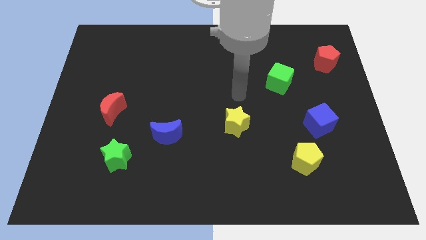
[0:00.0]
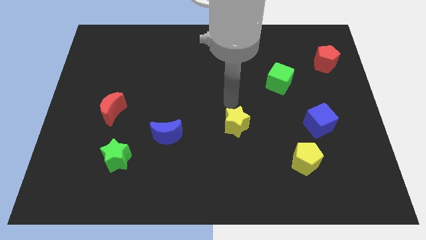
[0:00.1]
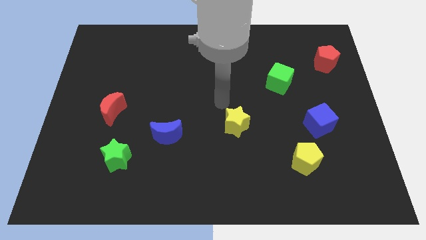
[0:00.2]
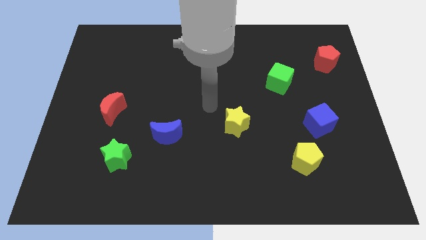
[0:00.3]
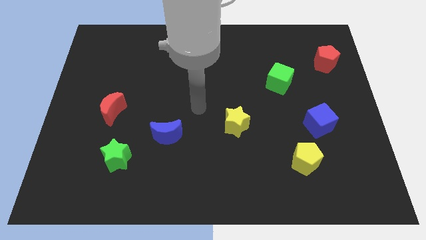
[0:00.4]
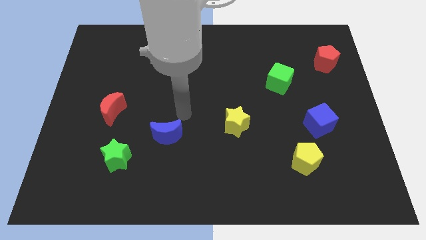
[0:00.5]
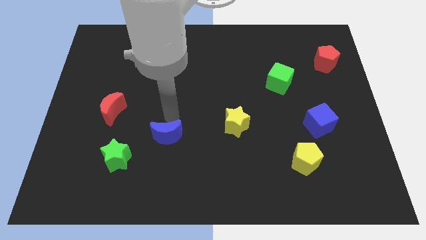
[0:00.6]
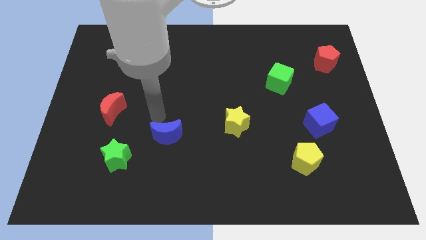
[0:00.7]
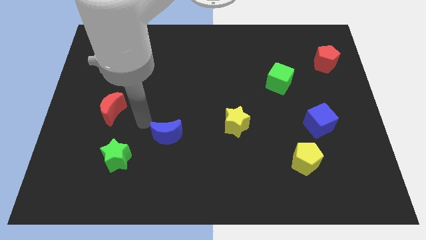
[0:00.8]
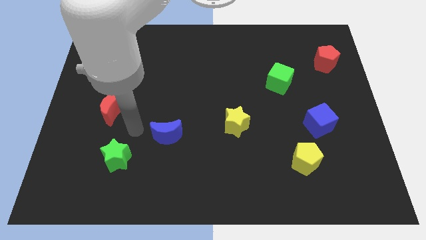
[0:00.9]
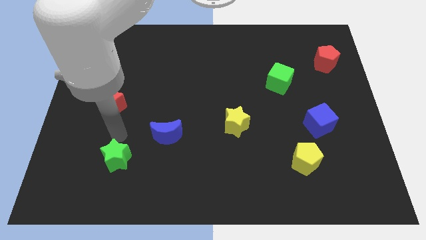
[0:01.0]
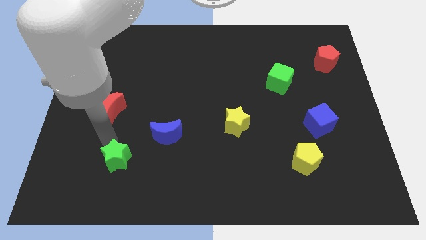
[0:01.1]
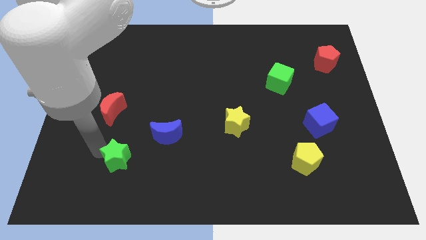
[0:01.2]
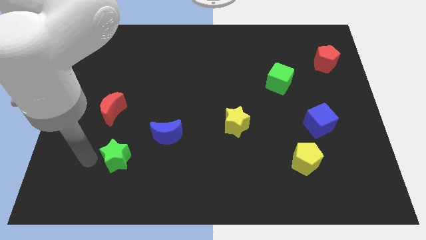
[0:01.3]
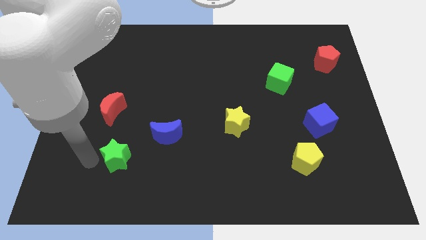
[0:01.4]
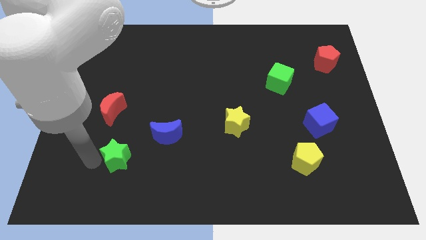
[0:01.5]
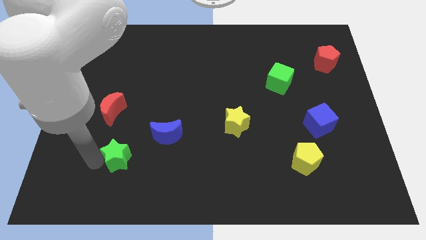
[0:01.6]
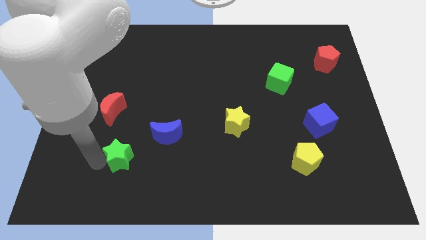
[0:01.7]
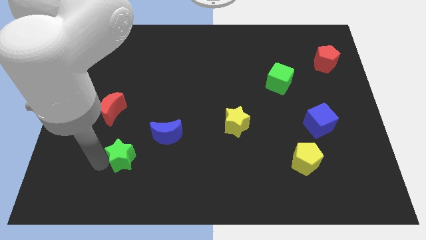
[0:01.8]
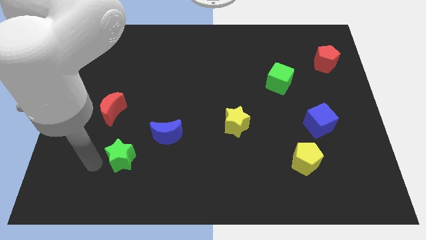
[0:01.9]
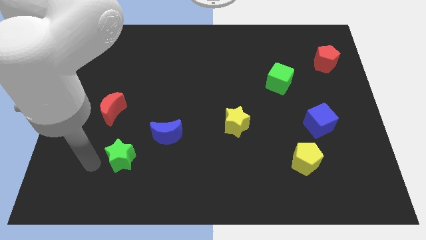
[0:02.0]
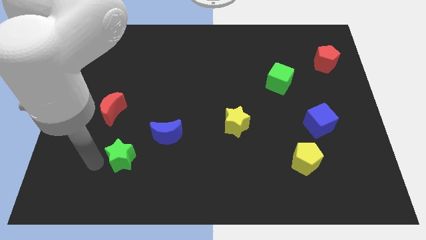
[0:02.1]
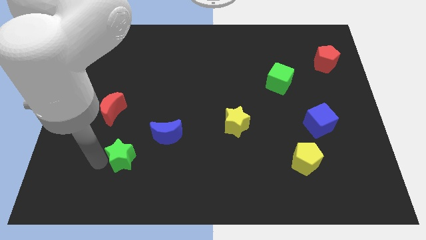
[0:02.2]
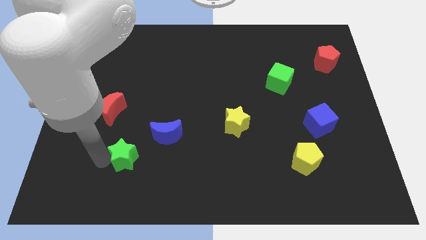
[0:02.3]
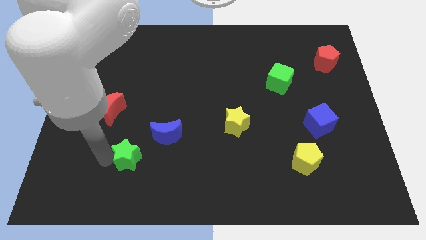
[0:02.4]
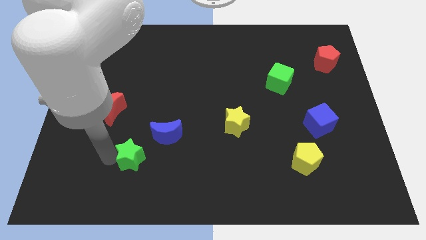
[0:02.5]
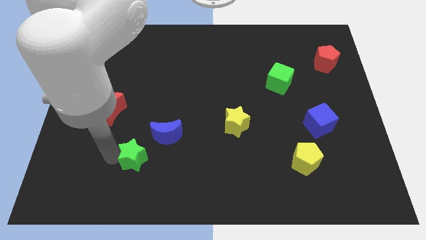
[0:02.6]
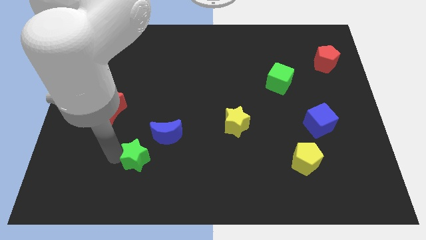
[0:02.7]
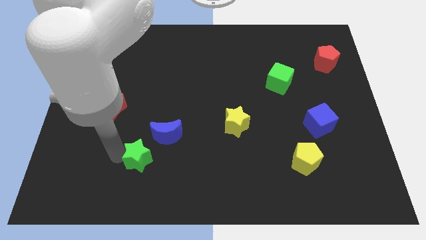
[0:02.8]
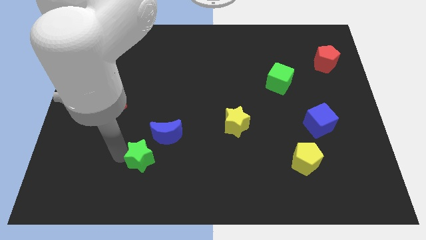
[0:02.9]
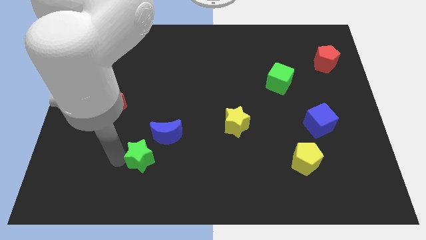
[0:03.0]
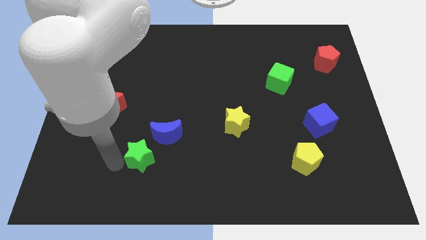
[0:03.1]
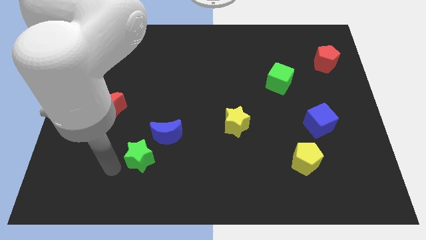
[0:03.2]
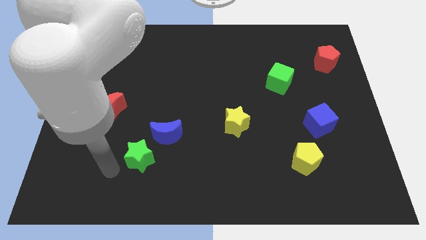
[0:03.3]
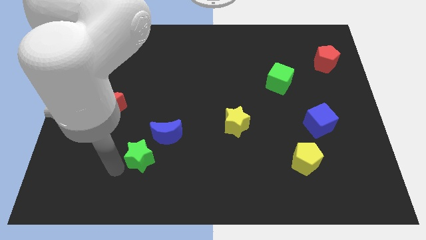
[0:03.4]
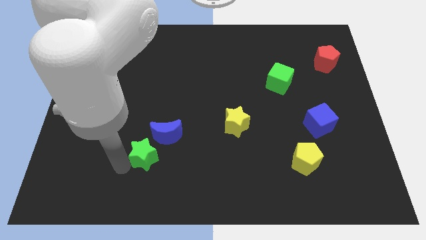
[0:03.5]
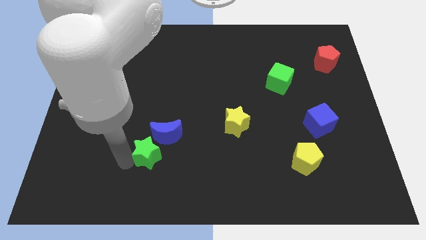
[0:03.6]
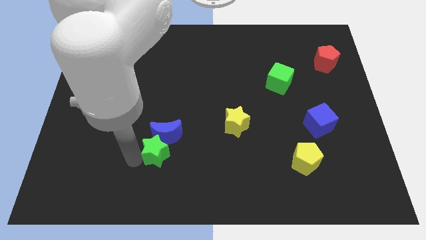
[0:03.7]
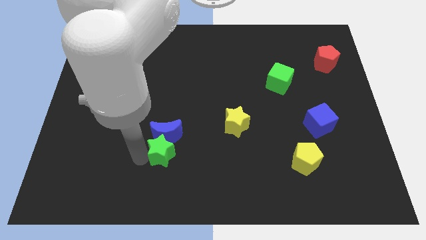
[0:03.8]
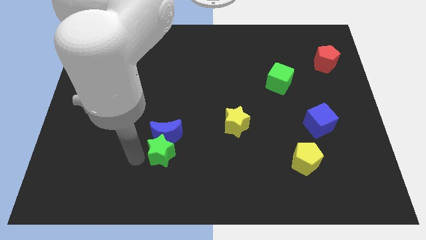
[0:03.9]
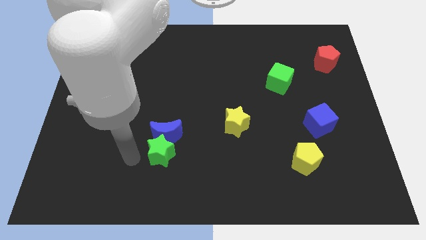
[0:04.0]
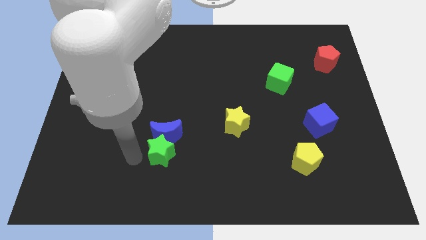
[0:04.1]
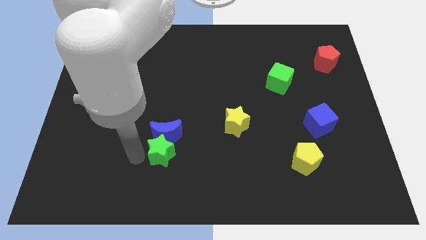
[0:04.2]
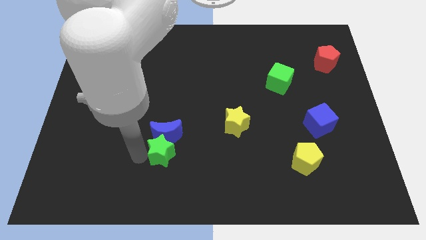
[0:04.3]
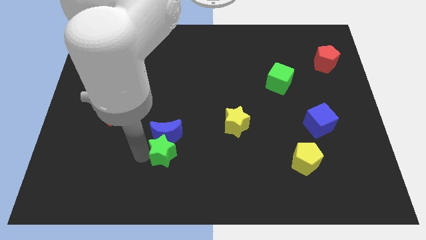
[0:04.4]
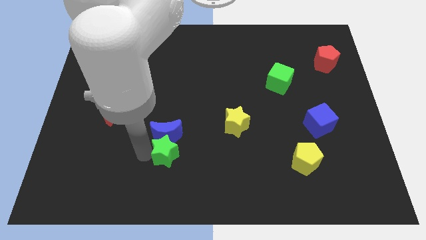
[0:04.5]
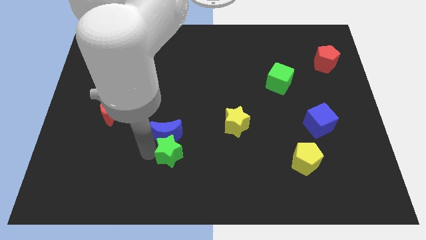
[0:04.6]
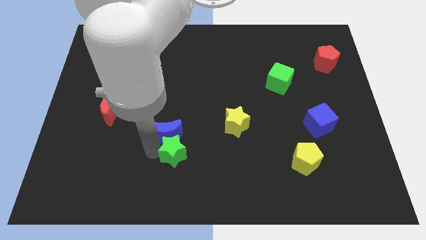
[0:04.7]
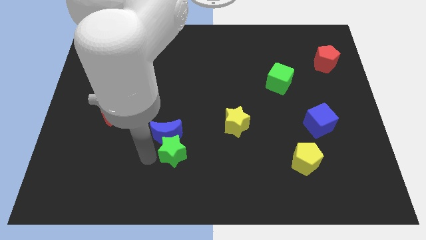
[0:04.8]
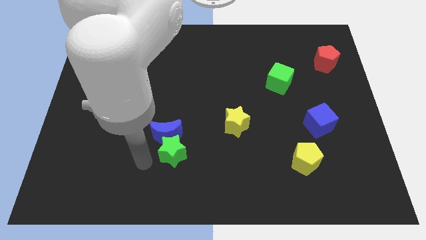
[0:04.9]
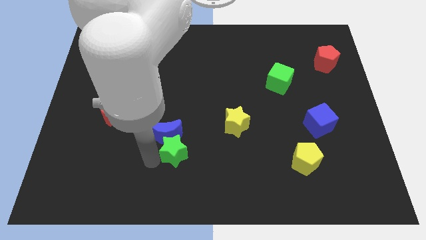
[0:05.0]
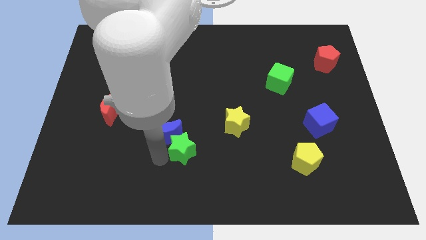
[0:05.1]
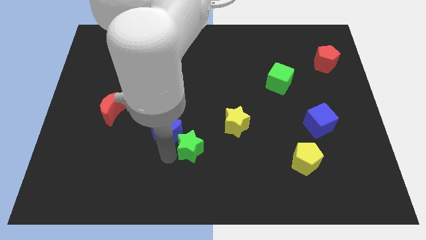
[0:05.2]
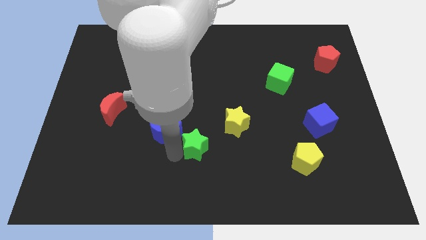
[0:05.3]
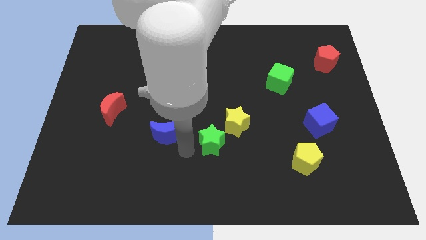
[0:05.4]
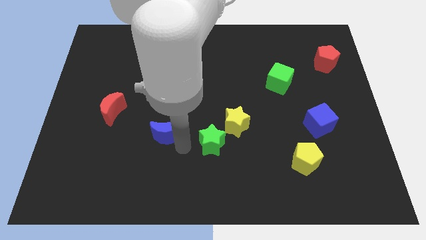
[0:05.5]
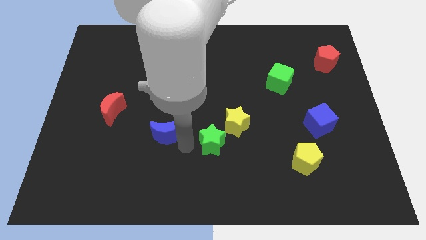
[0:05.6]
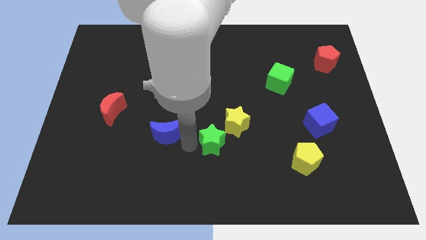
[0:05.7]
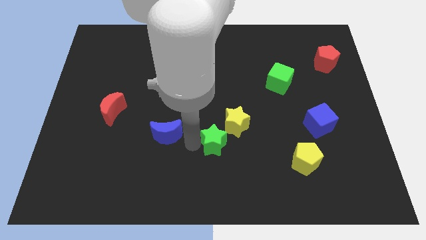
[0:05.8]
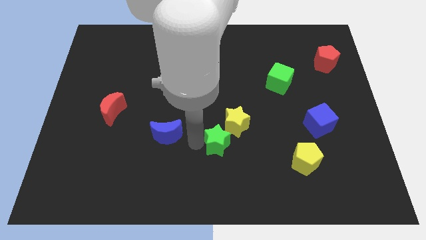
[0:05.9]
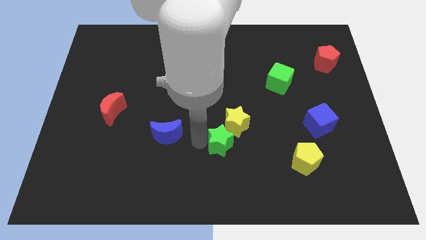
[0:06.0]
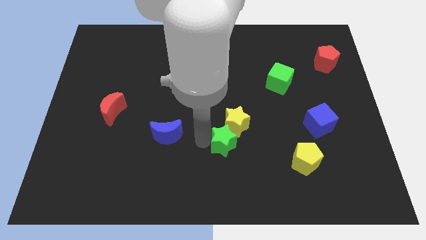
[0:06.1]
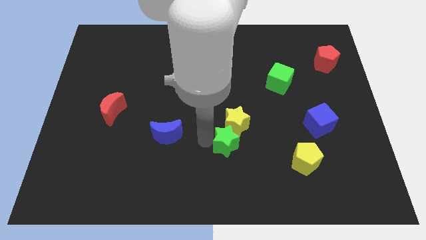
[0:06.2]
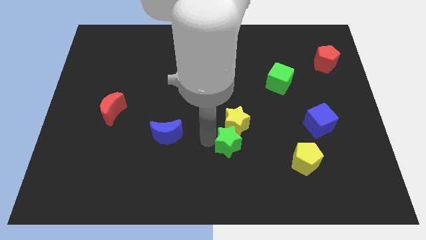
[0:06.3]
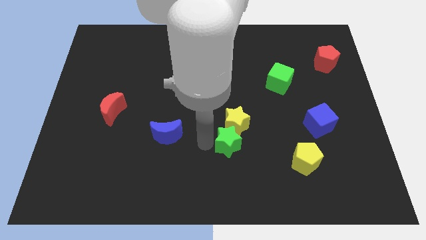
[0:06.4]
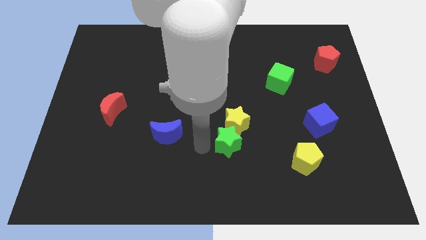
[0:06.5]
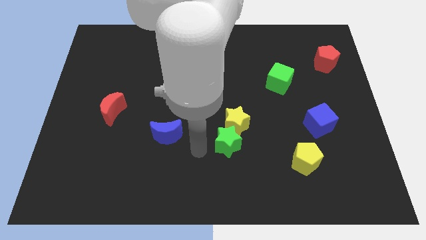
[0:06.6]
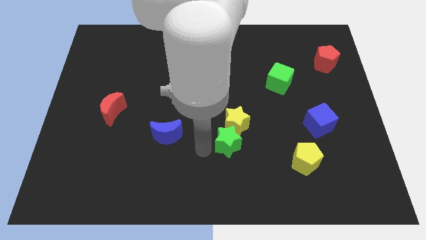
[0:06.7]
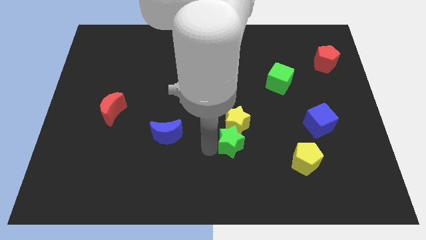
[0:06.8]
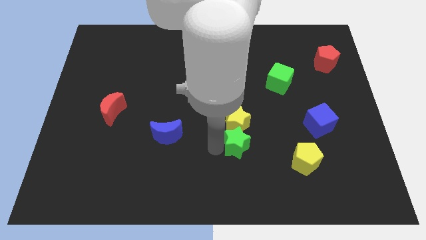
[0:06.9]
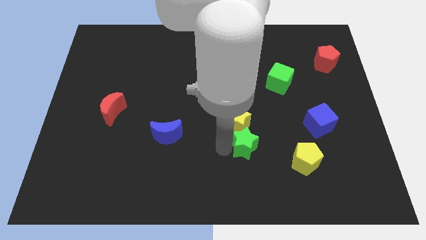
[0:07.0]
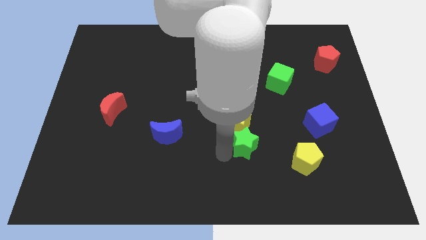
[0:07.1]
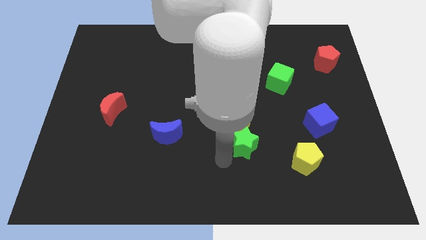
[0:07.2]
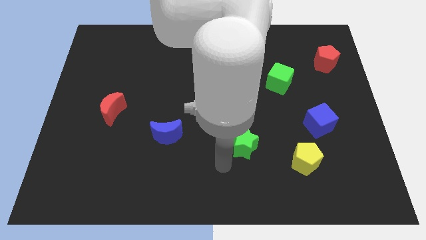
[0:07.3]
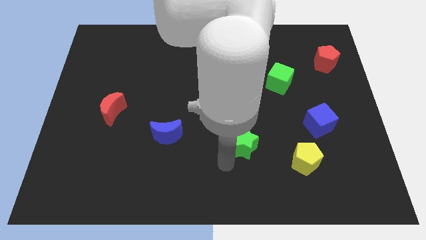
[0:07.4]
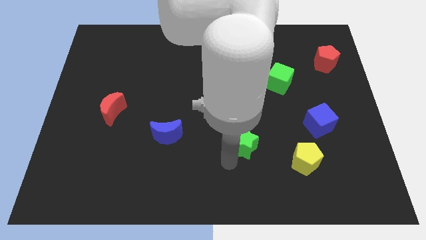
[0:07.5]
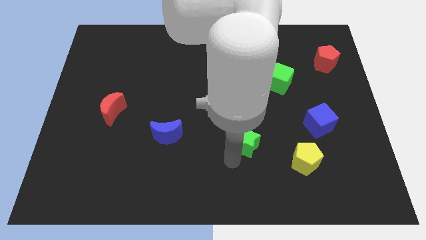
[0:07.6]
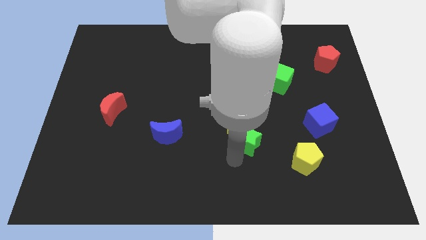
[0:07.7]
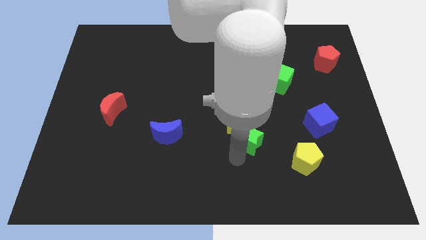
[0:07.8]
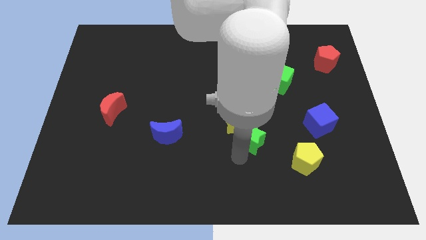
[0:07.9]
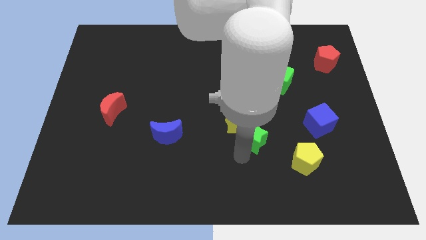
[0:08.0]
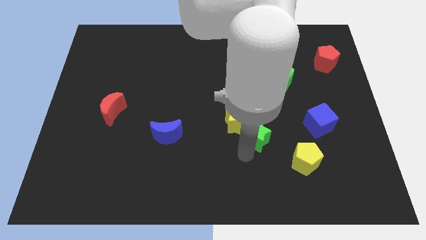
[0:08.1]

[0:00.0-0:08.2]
push the green star right of the yellow star
